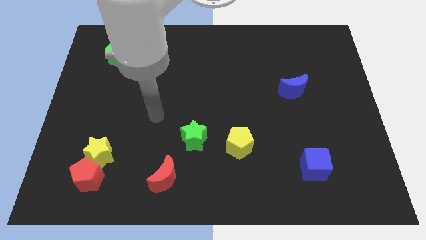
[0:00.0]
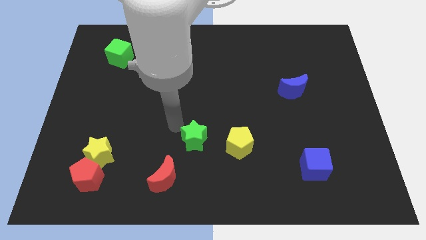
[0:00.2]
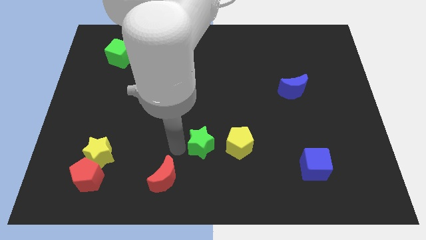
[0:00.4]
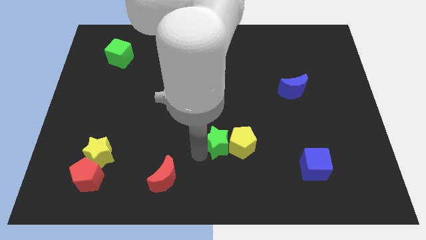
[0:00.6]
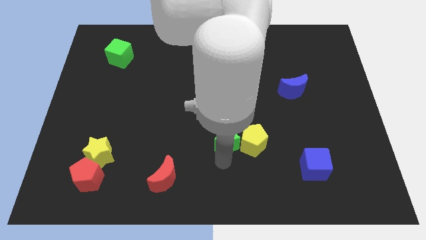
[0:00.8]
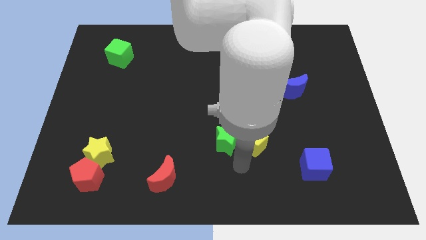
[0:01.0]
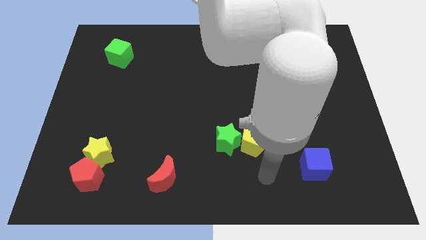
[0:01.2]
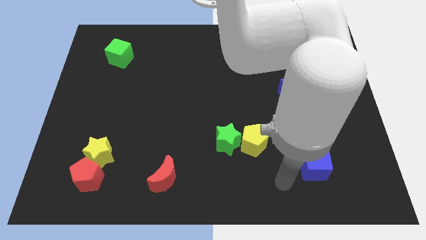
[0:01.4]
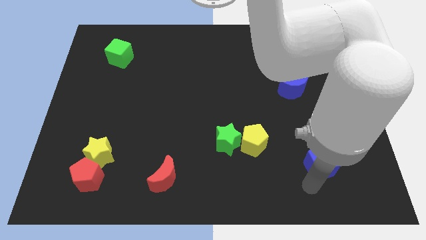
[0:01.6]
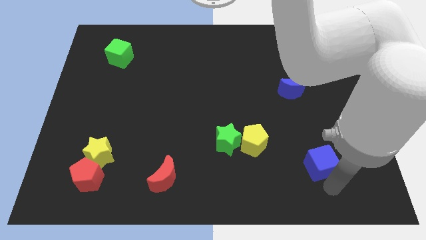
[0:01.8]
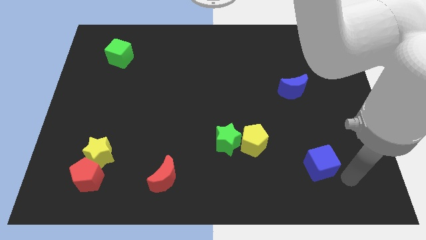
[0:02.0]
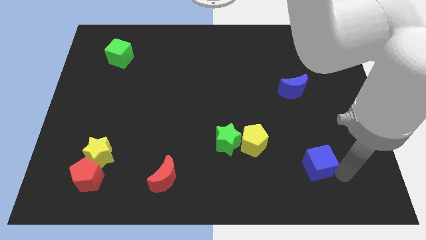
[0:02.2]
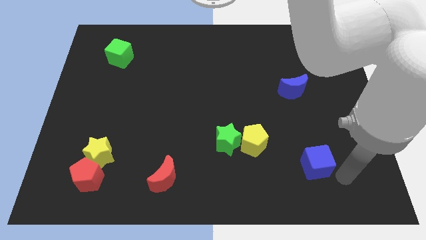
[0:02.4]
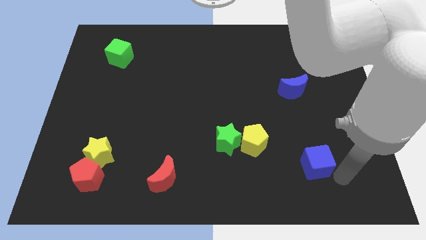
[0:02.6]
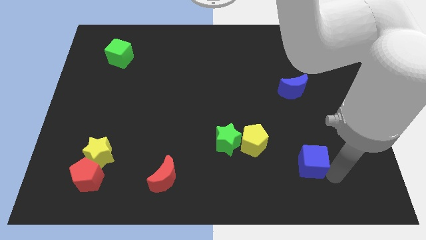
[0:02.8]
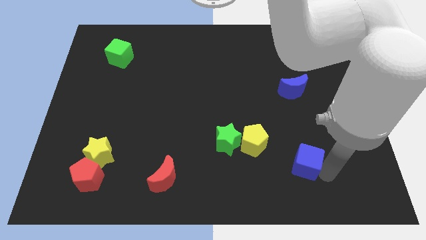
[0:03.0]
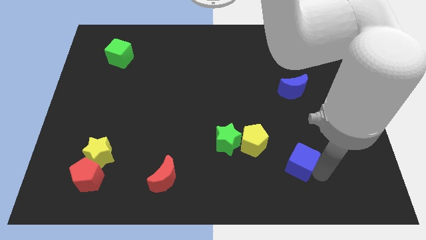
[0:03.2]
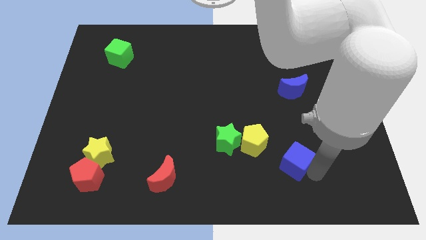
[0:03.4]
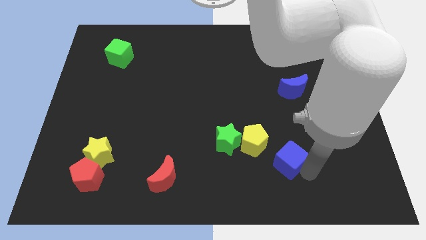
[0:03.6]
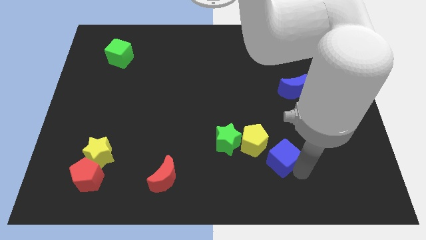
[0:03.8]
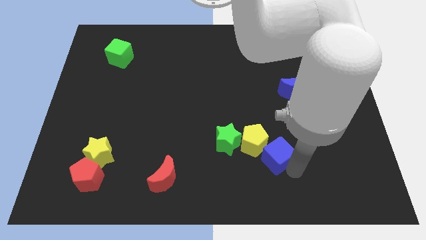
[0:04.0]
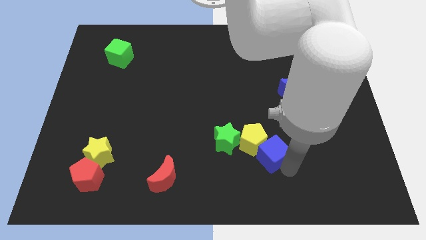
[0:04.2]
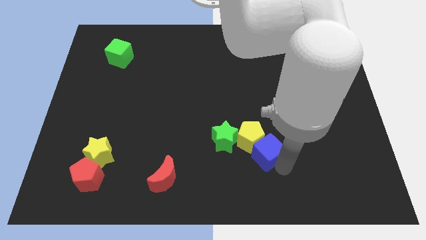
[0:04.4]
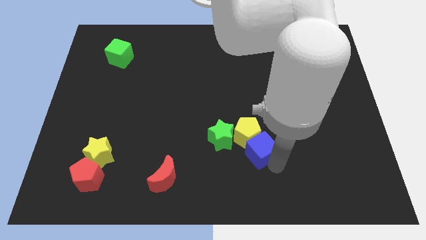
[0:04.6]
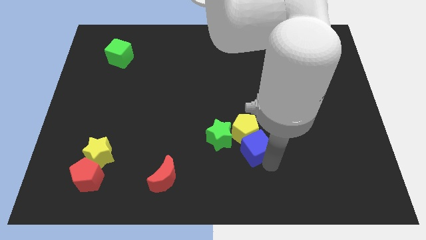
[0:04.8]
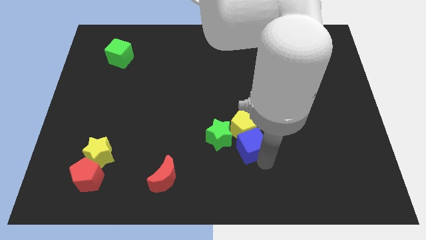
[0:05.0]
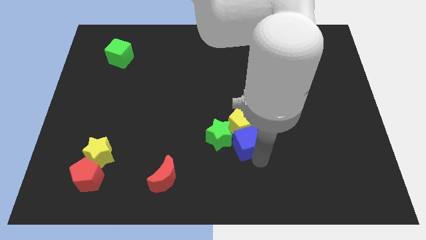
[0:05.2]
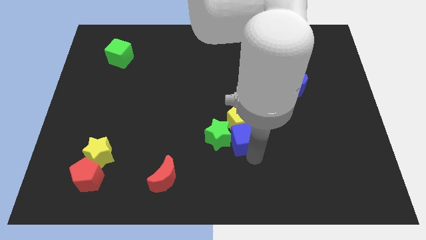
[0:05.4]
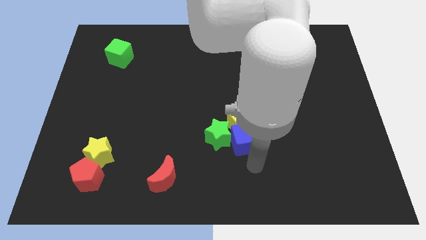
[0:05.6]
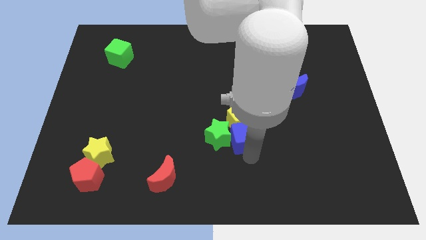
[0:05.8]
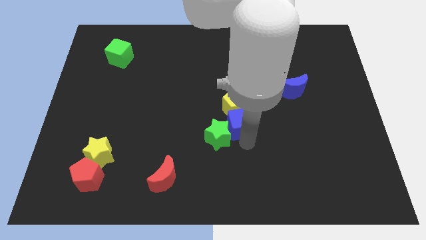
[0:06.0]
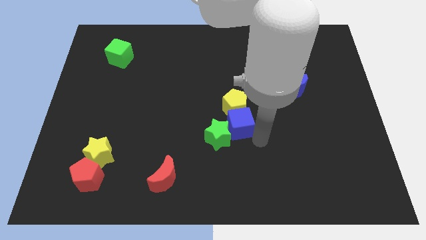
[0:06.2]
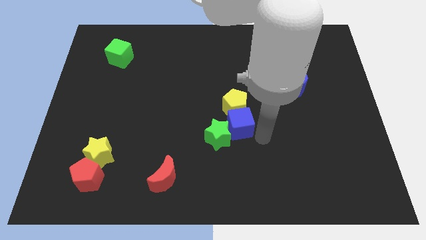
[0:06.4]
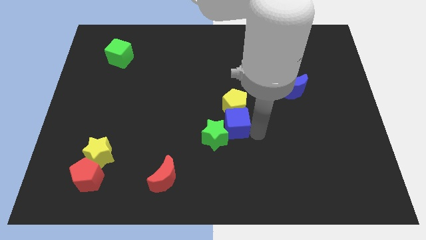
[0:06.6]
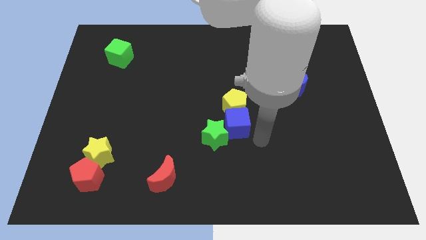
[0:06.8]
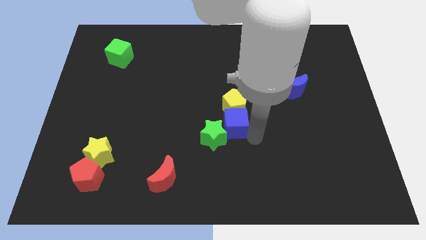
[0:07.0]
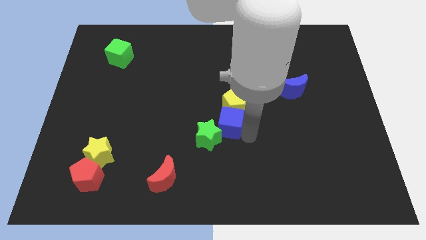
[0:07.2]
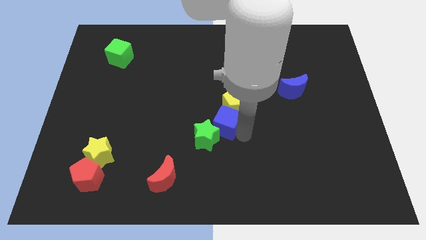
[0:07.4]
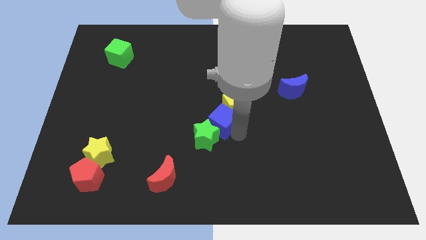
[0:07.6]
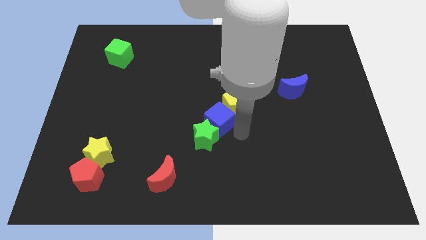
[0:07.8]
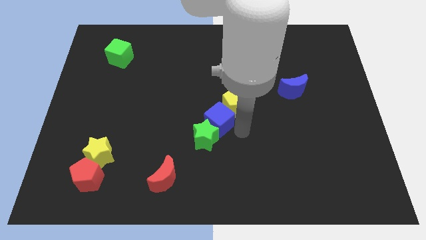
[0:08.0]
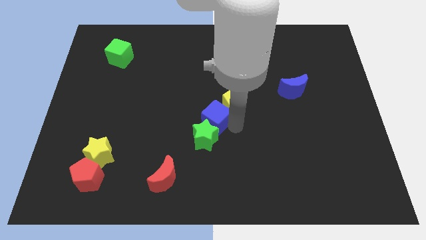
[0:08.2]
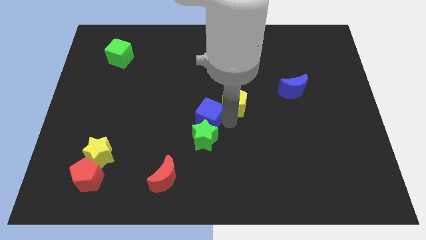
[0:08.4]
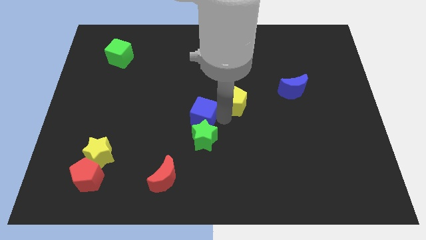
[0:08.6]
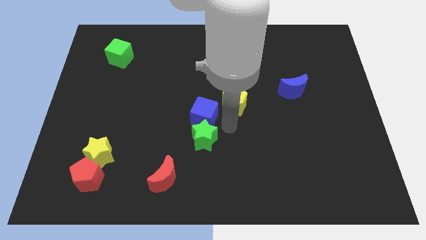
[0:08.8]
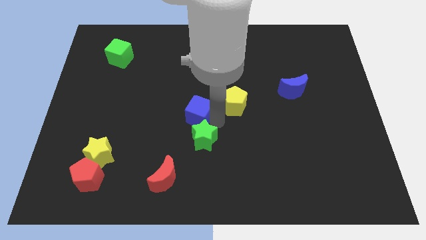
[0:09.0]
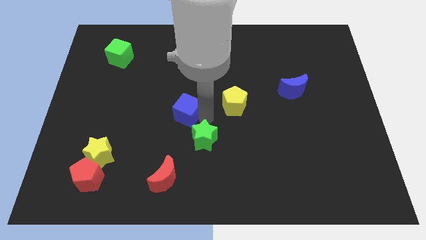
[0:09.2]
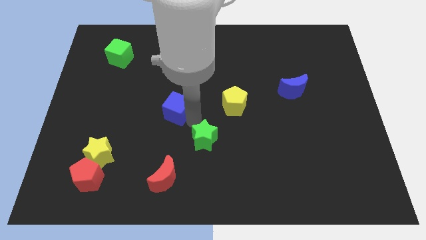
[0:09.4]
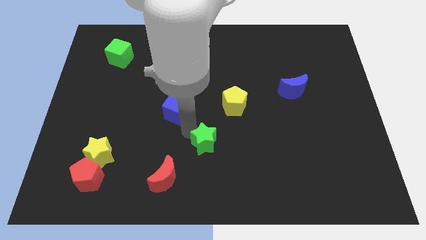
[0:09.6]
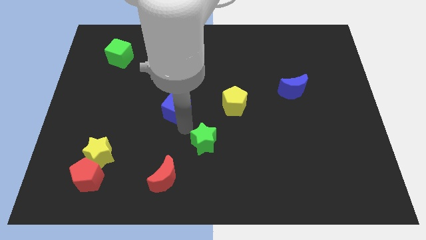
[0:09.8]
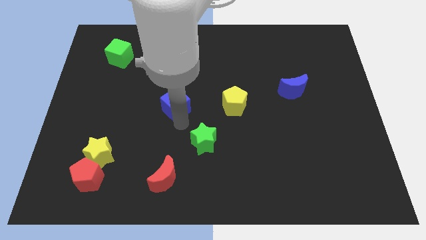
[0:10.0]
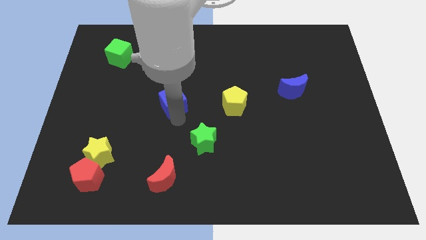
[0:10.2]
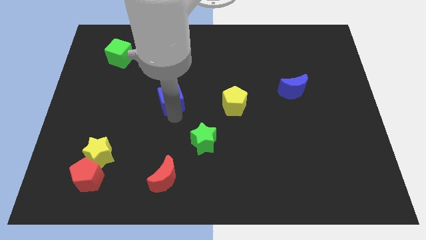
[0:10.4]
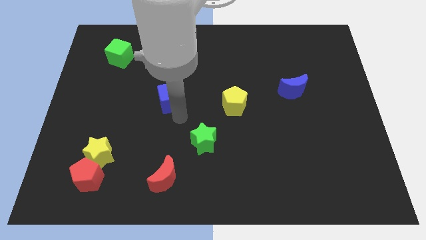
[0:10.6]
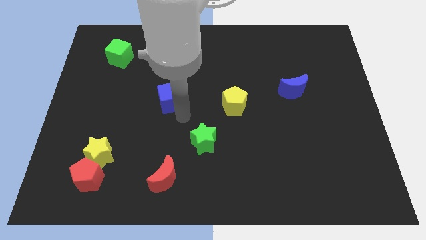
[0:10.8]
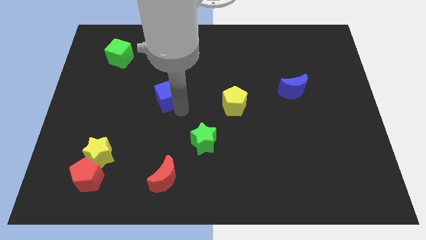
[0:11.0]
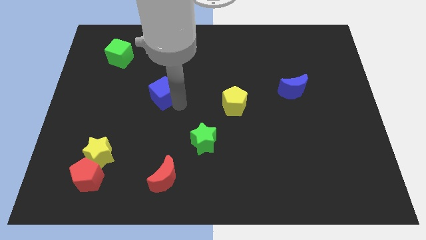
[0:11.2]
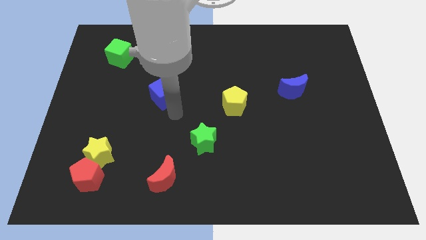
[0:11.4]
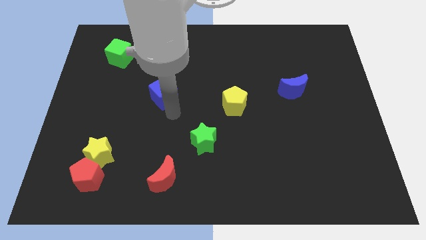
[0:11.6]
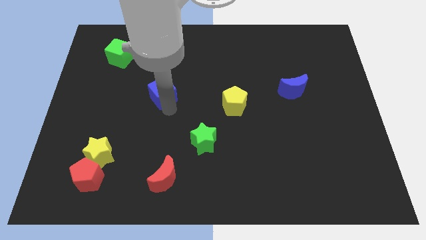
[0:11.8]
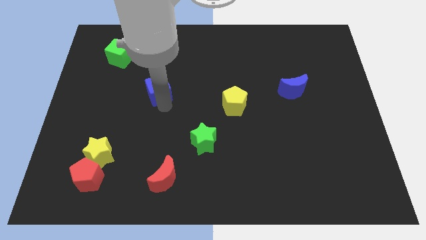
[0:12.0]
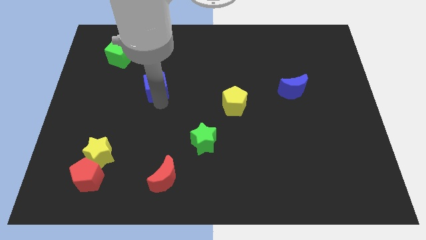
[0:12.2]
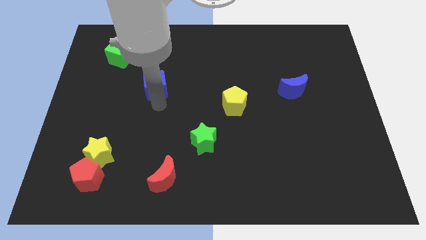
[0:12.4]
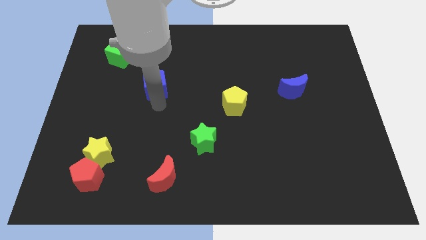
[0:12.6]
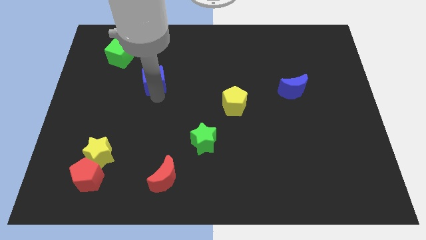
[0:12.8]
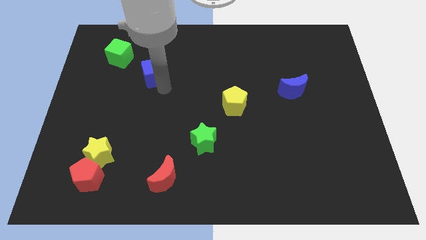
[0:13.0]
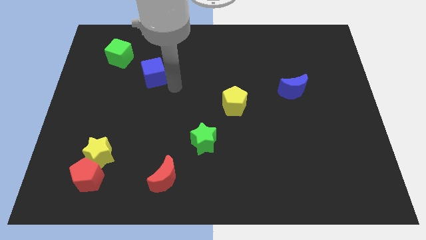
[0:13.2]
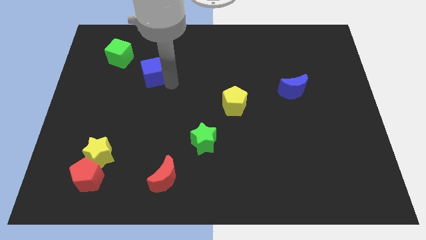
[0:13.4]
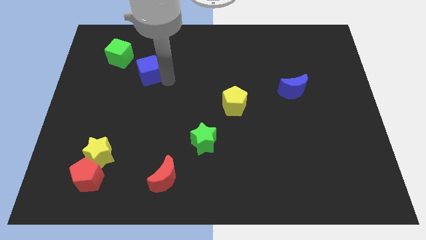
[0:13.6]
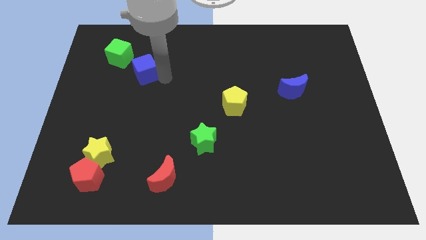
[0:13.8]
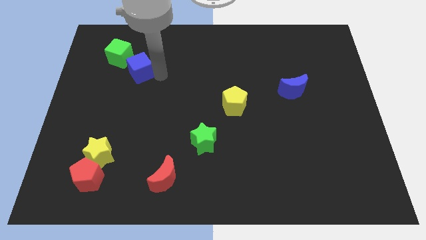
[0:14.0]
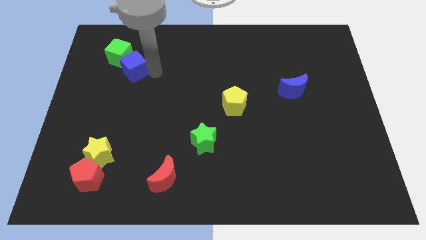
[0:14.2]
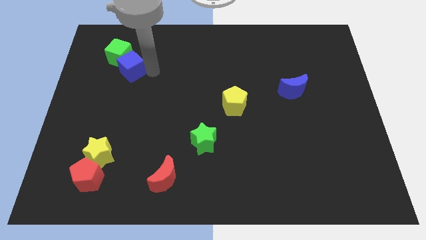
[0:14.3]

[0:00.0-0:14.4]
put the blue cube towards the green cube

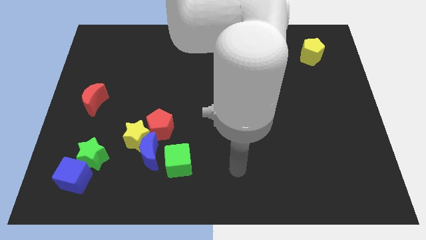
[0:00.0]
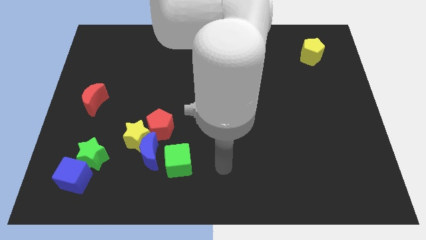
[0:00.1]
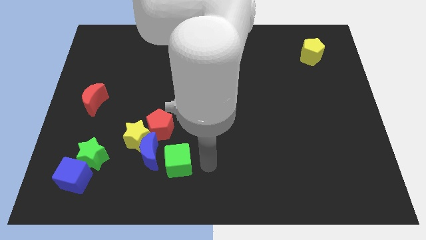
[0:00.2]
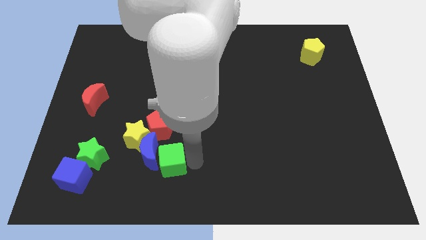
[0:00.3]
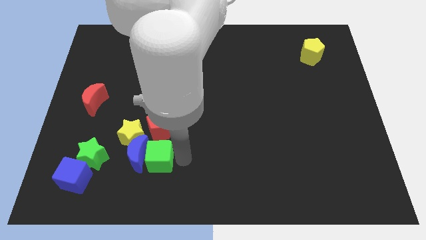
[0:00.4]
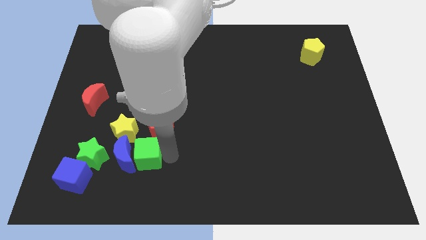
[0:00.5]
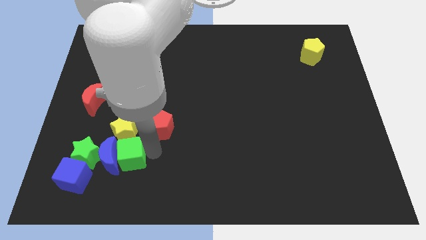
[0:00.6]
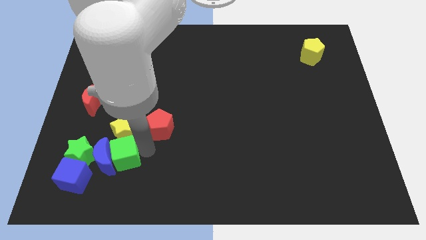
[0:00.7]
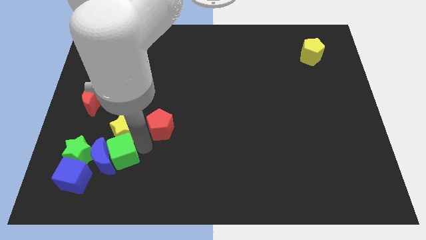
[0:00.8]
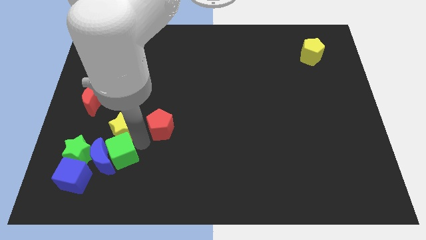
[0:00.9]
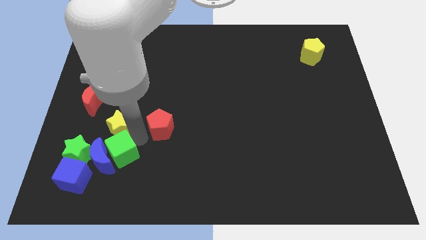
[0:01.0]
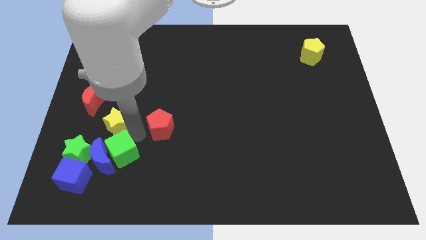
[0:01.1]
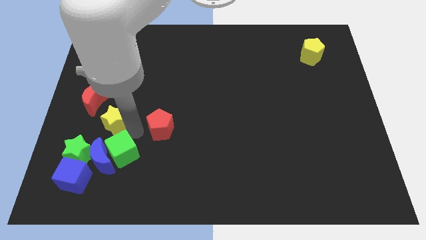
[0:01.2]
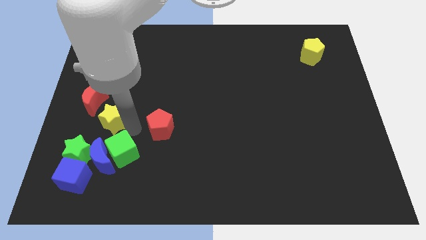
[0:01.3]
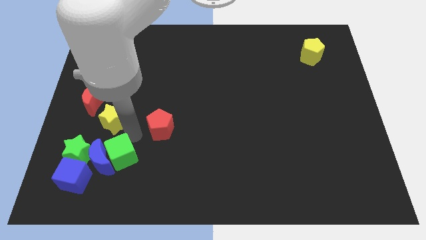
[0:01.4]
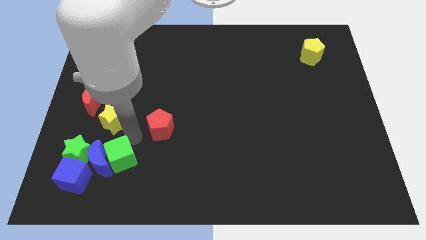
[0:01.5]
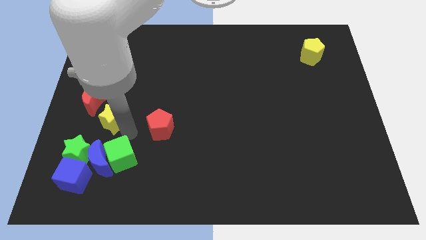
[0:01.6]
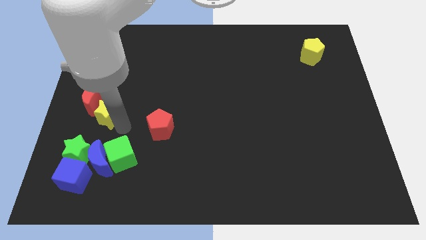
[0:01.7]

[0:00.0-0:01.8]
push the yellow star close to the red moon
